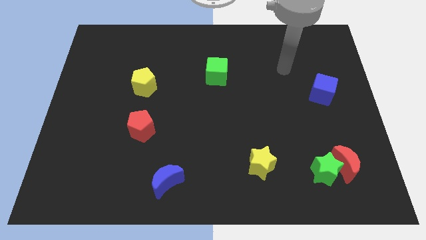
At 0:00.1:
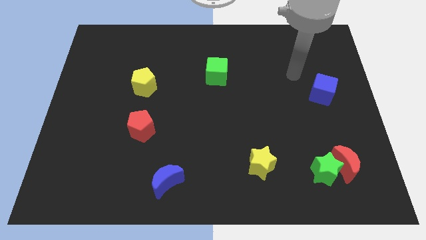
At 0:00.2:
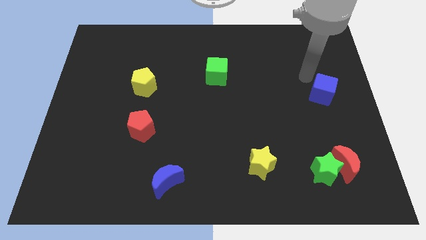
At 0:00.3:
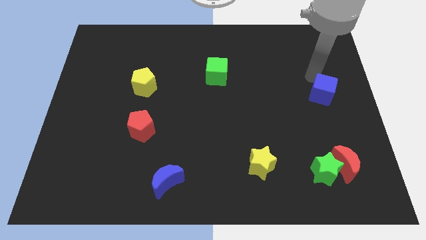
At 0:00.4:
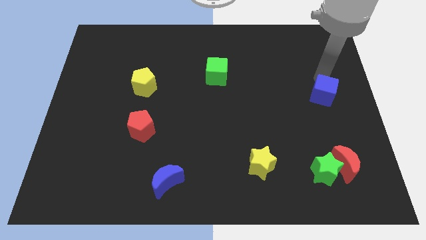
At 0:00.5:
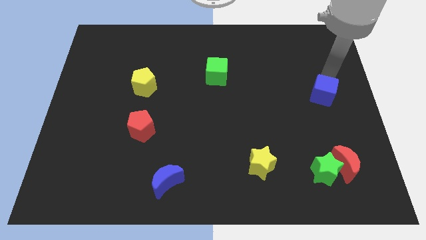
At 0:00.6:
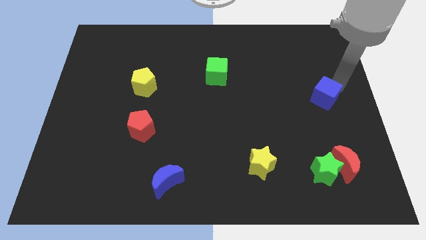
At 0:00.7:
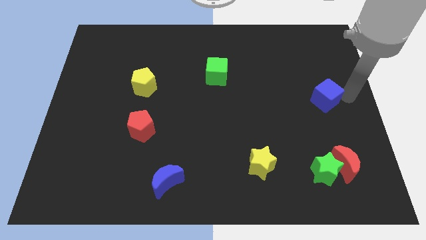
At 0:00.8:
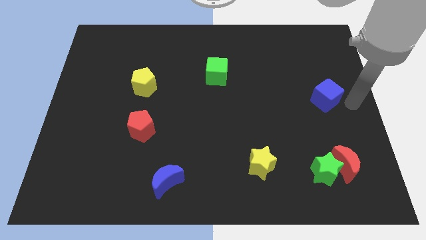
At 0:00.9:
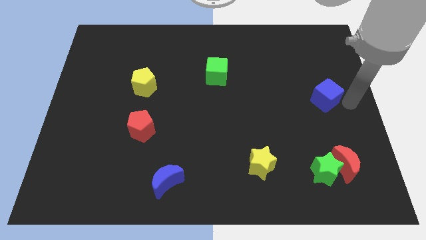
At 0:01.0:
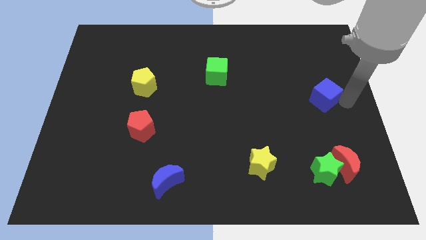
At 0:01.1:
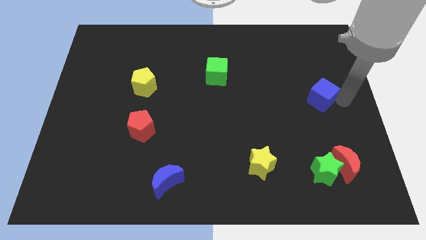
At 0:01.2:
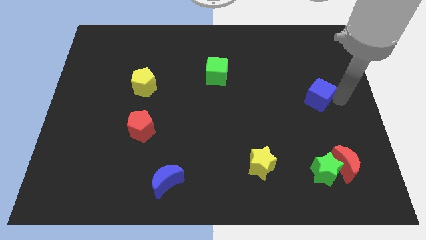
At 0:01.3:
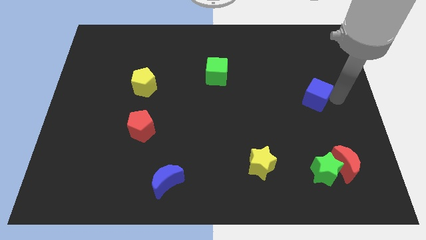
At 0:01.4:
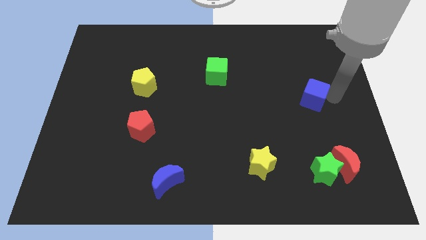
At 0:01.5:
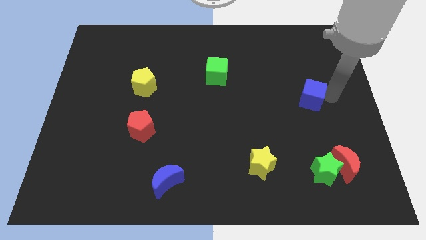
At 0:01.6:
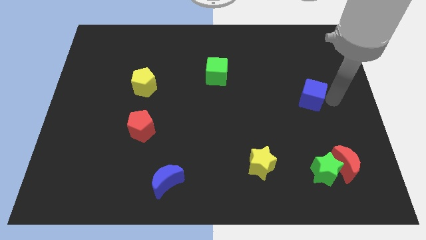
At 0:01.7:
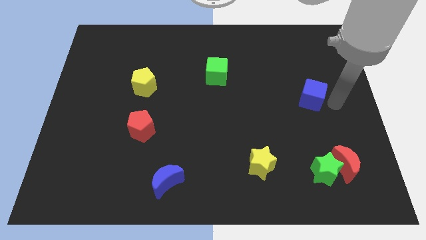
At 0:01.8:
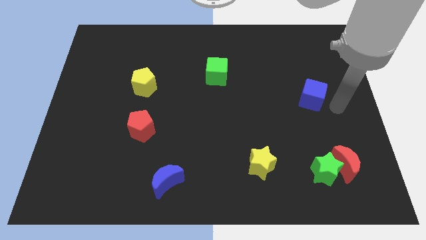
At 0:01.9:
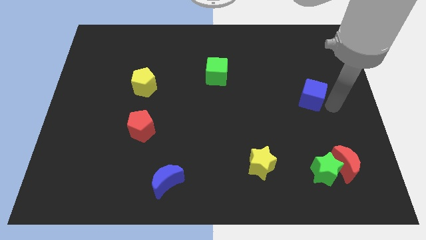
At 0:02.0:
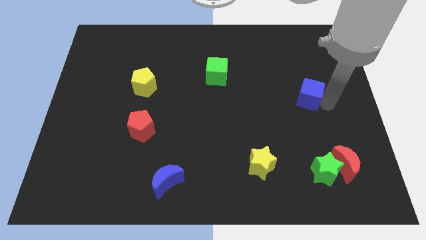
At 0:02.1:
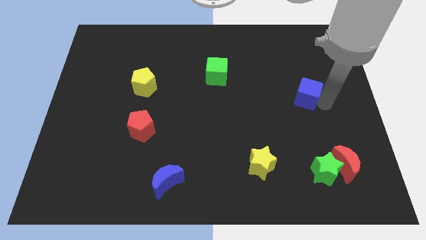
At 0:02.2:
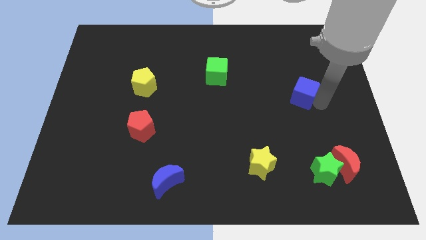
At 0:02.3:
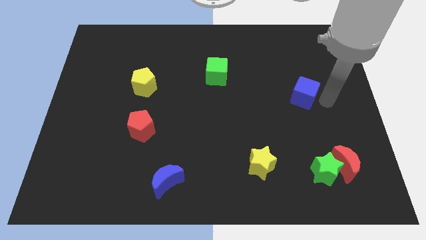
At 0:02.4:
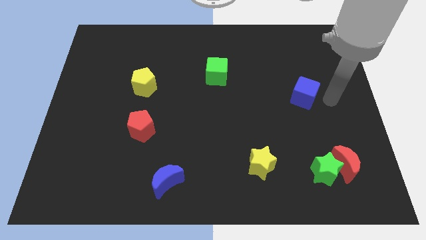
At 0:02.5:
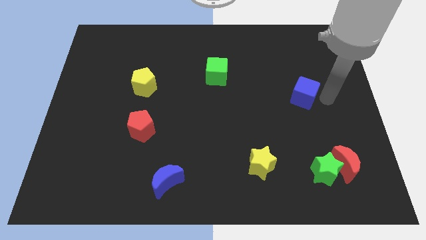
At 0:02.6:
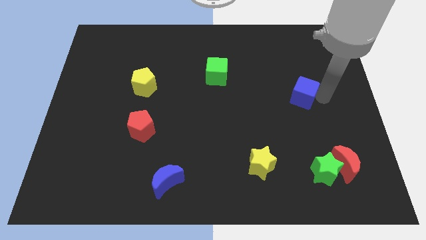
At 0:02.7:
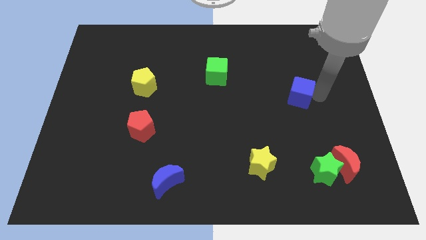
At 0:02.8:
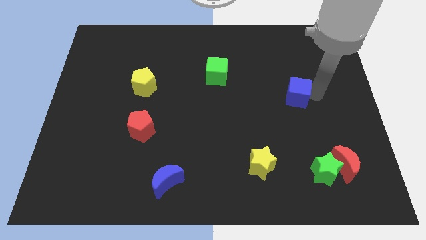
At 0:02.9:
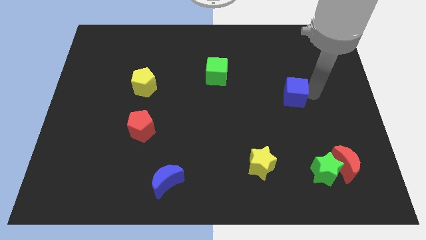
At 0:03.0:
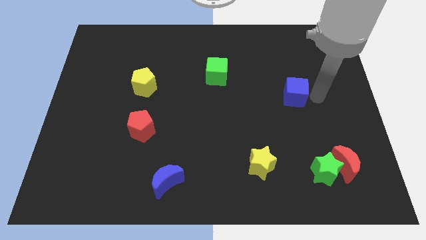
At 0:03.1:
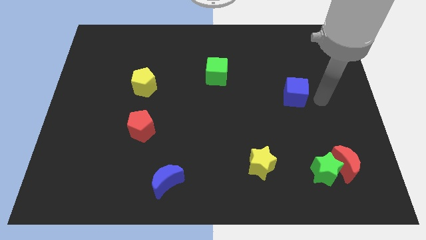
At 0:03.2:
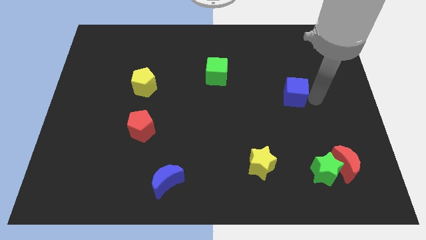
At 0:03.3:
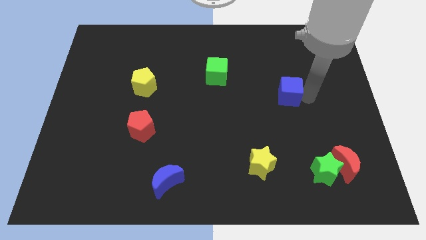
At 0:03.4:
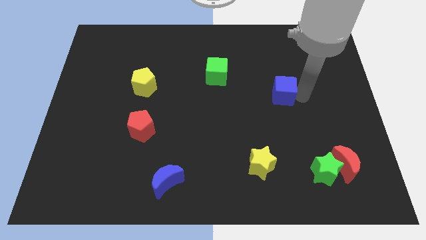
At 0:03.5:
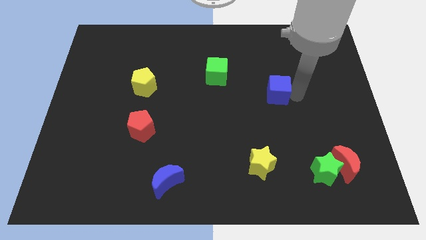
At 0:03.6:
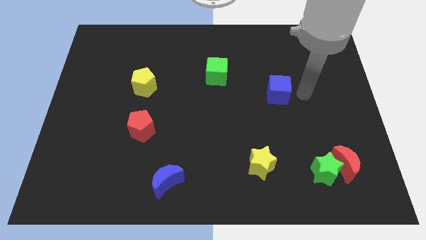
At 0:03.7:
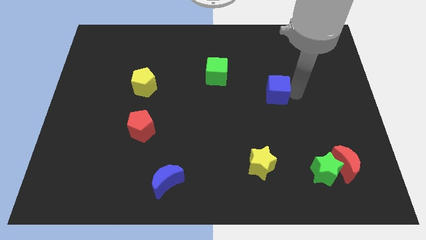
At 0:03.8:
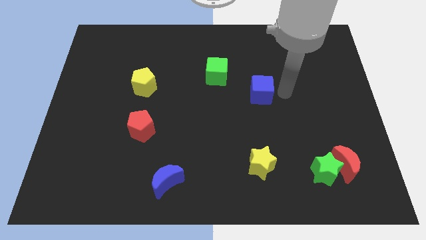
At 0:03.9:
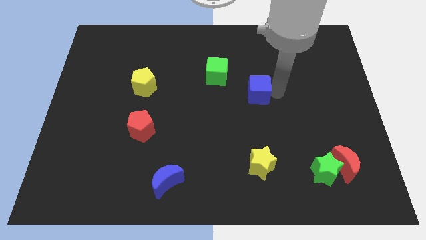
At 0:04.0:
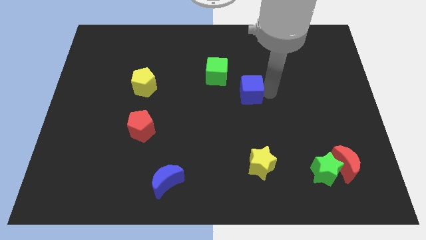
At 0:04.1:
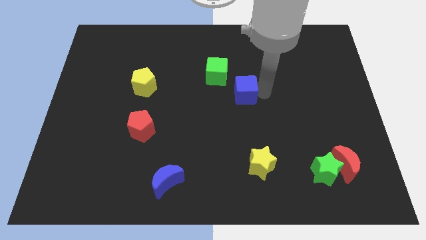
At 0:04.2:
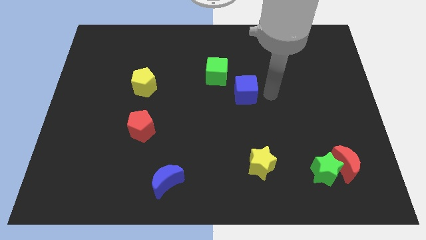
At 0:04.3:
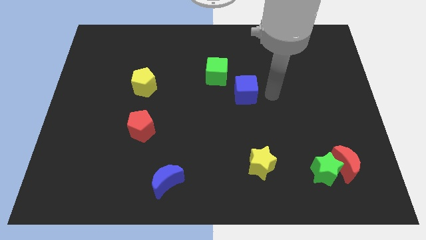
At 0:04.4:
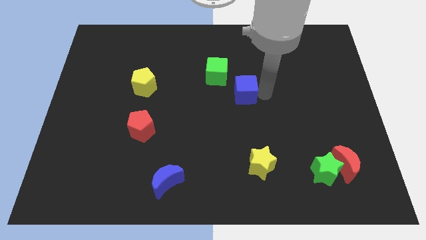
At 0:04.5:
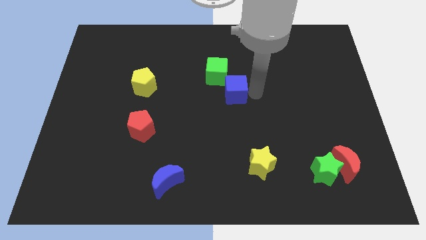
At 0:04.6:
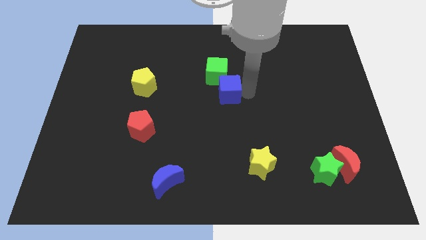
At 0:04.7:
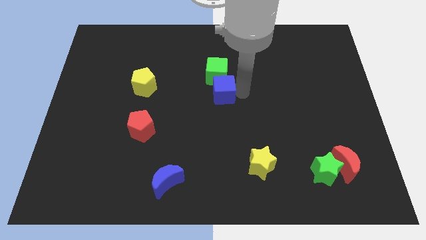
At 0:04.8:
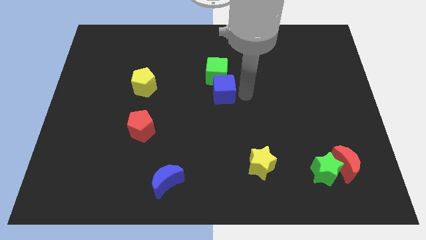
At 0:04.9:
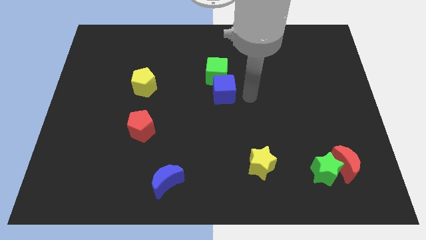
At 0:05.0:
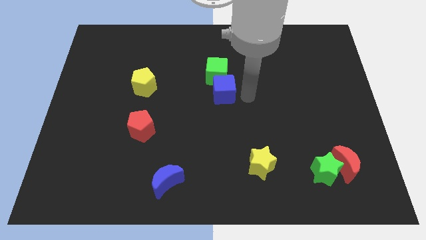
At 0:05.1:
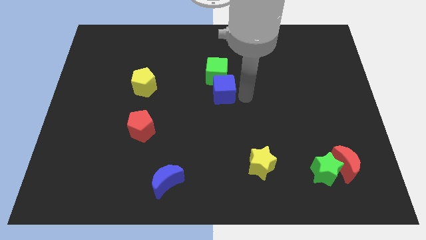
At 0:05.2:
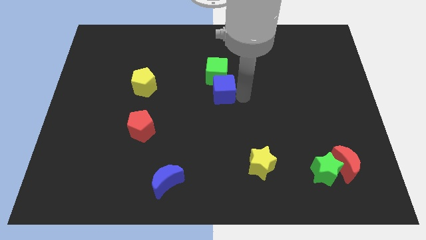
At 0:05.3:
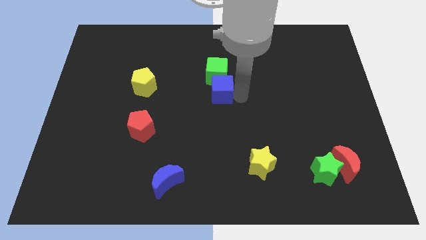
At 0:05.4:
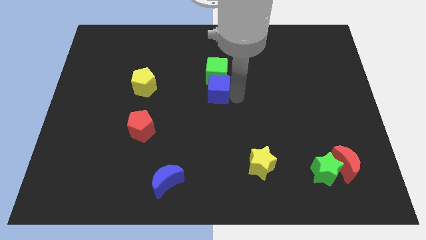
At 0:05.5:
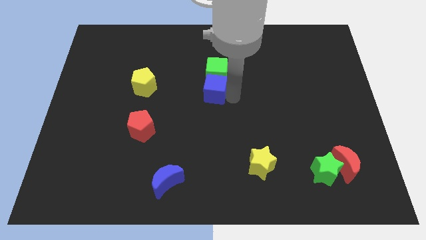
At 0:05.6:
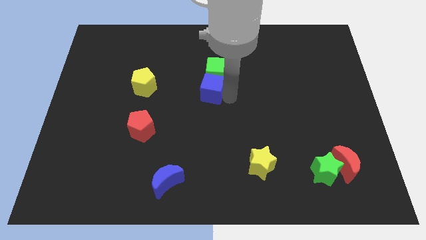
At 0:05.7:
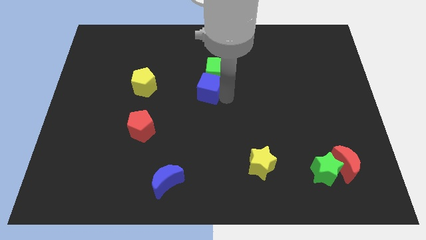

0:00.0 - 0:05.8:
put the blue cube to the right of the yellow pentagon

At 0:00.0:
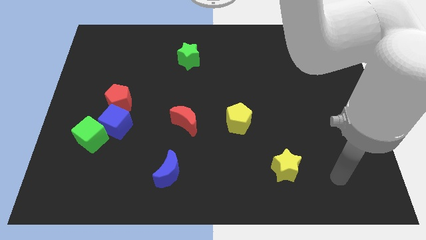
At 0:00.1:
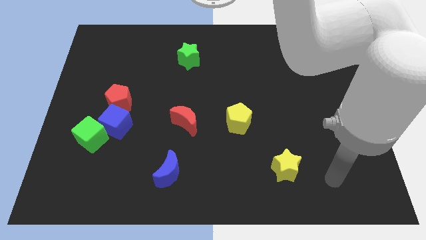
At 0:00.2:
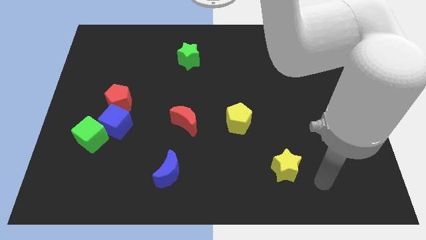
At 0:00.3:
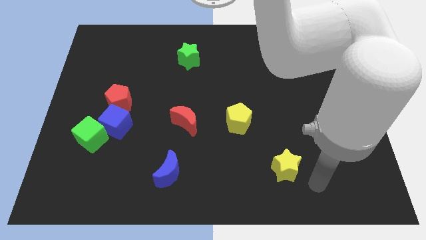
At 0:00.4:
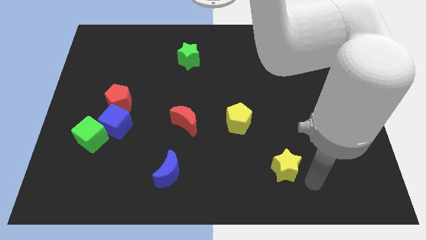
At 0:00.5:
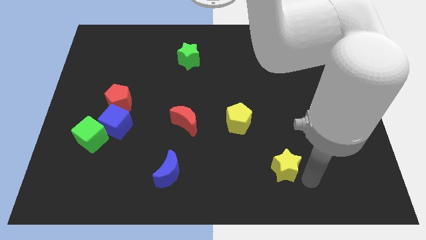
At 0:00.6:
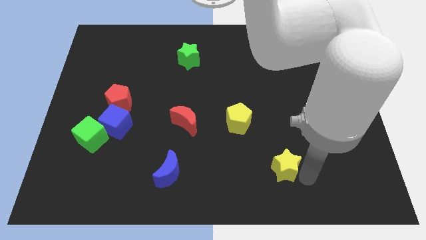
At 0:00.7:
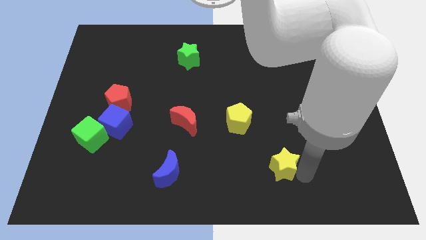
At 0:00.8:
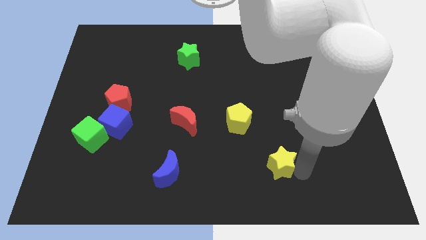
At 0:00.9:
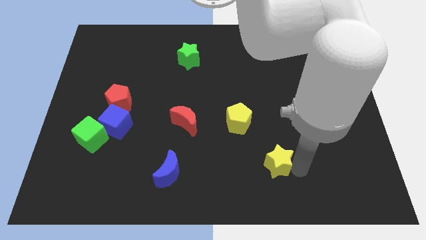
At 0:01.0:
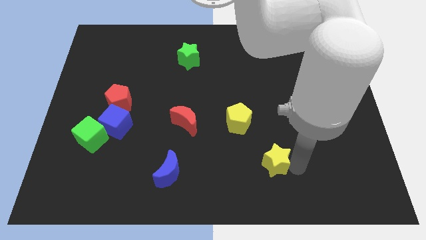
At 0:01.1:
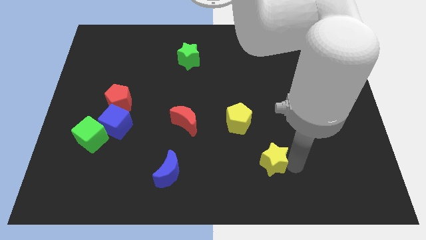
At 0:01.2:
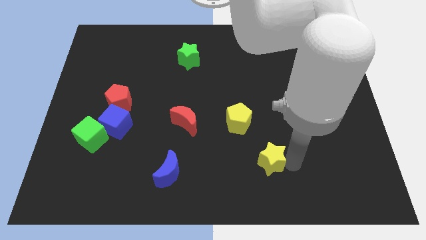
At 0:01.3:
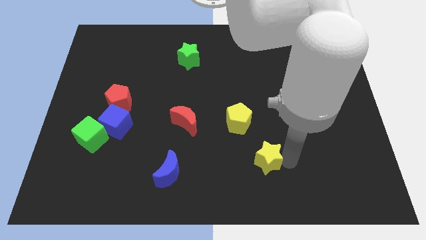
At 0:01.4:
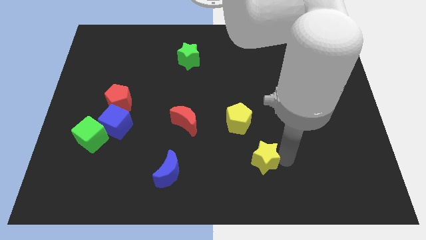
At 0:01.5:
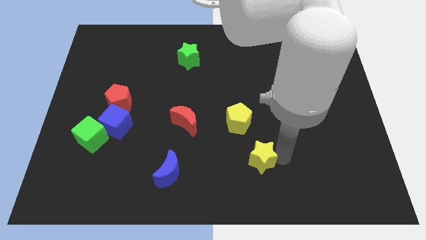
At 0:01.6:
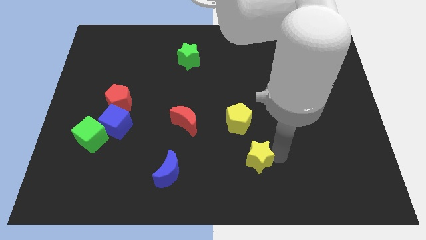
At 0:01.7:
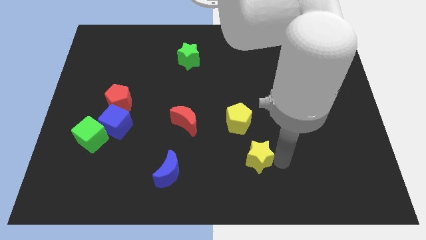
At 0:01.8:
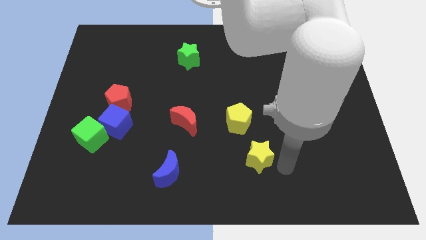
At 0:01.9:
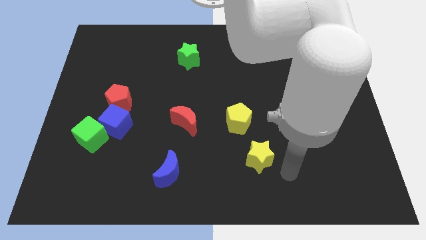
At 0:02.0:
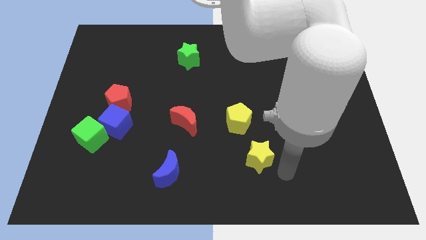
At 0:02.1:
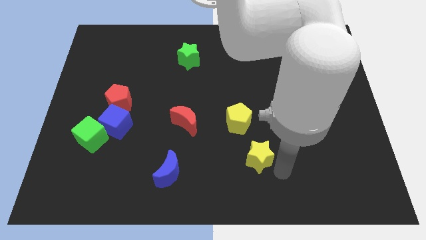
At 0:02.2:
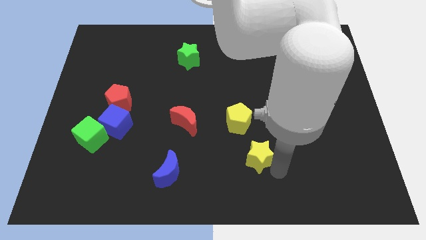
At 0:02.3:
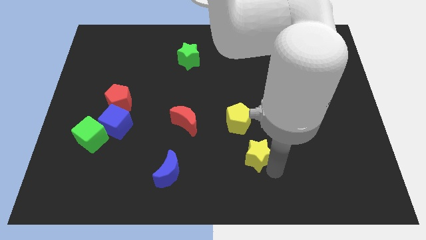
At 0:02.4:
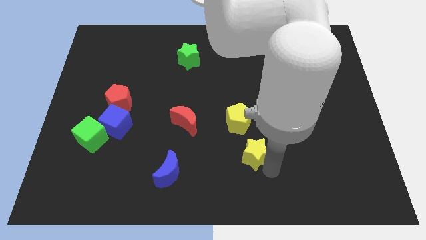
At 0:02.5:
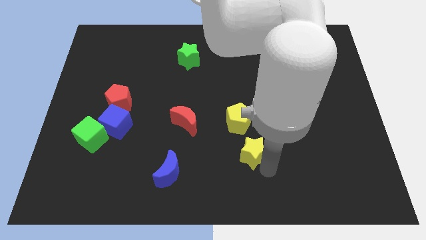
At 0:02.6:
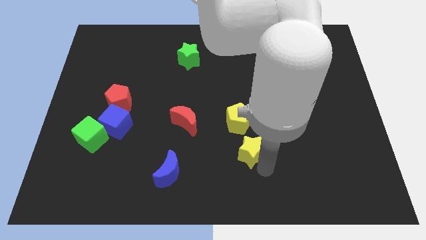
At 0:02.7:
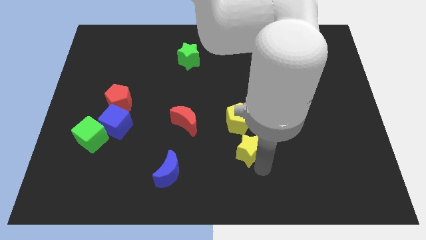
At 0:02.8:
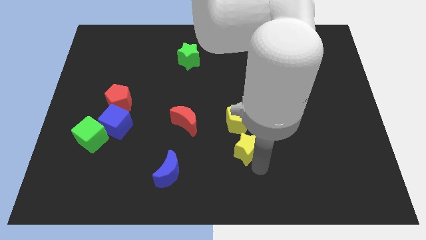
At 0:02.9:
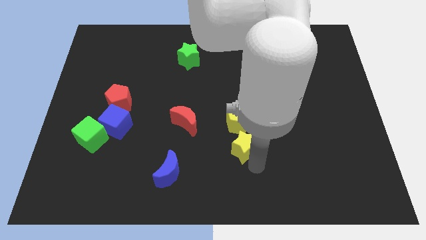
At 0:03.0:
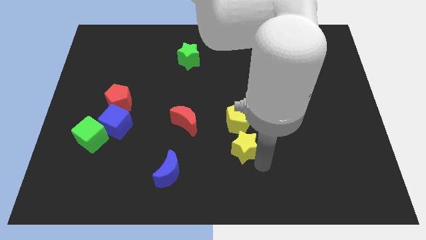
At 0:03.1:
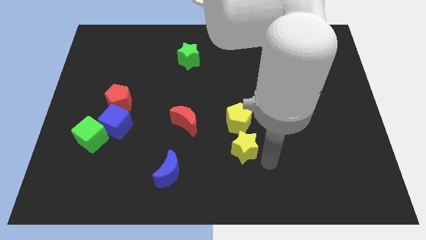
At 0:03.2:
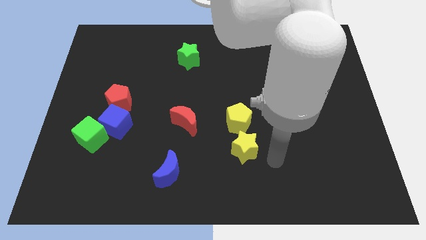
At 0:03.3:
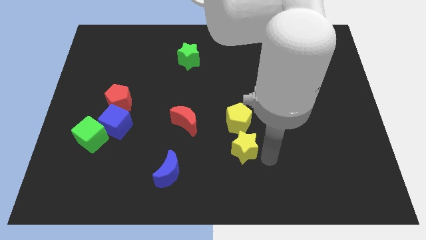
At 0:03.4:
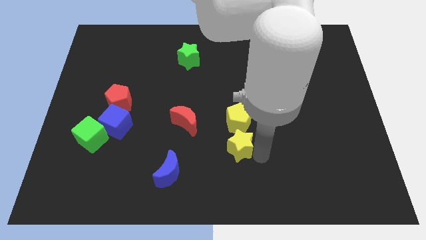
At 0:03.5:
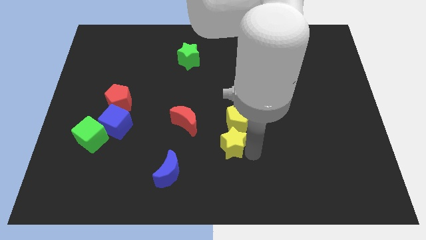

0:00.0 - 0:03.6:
put the yellow star to the bottom left of the yellow pentagon
